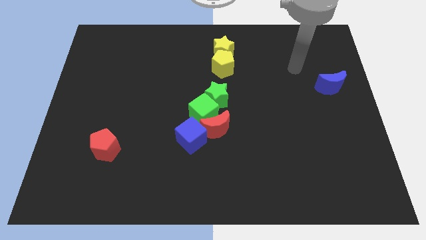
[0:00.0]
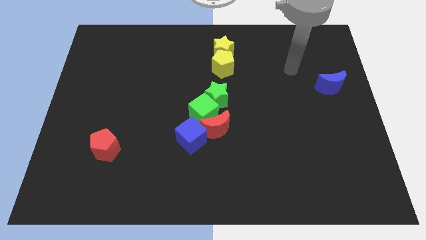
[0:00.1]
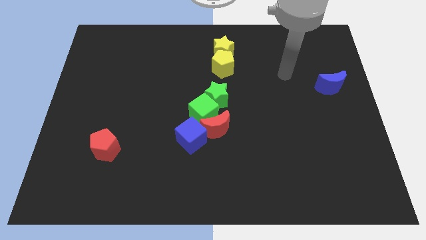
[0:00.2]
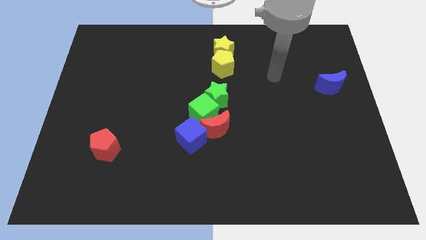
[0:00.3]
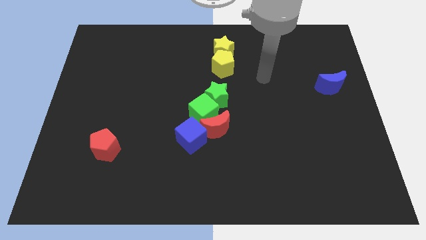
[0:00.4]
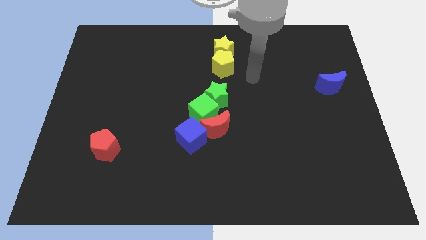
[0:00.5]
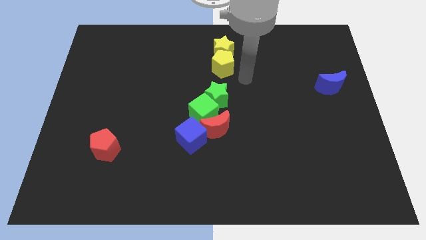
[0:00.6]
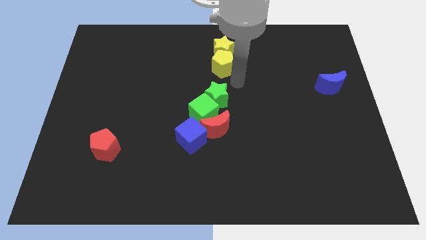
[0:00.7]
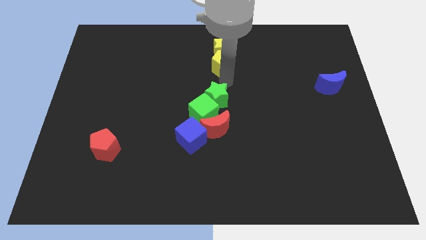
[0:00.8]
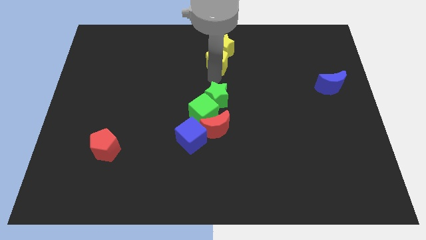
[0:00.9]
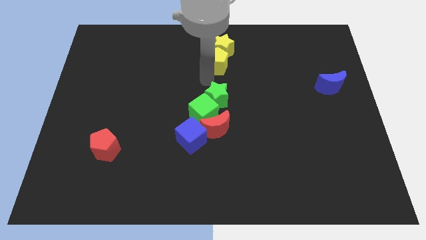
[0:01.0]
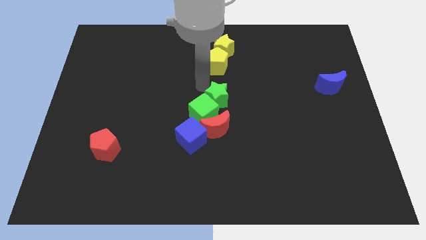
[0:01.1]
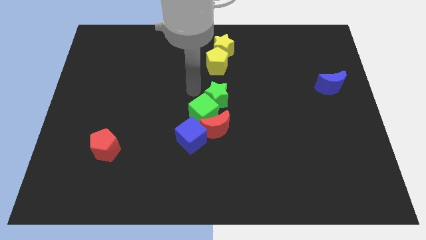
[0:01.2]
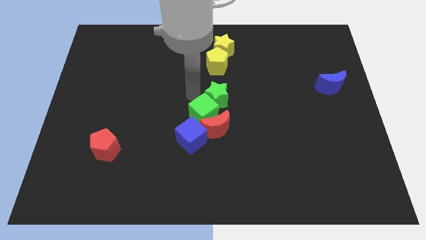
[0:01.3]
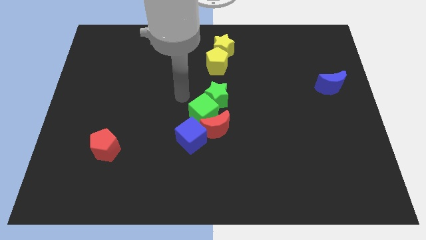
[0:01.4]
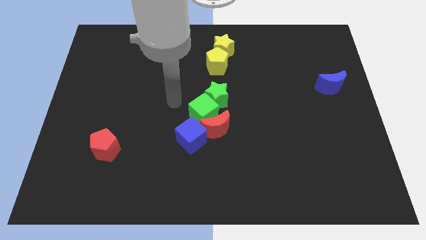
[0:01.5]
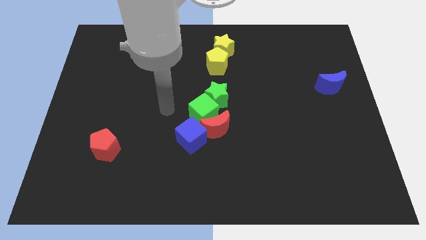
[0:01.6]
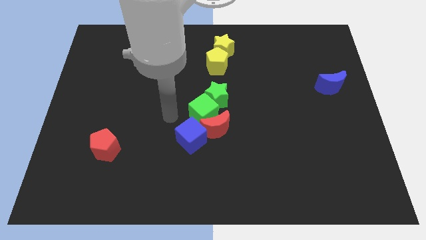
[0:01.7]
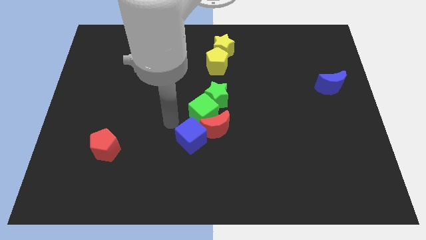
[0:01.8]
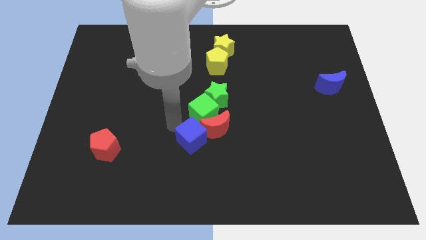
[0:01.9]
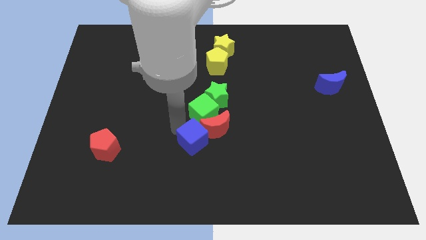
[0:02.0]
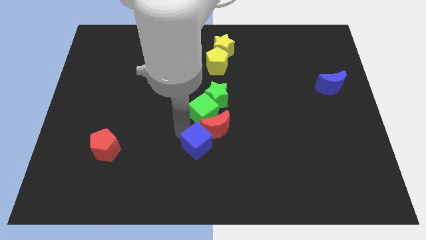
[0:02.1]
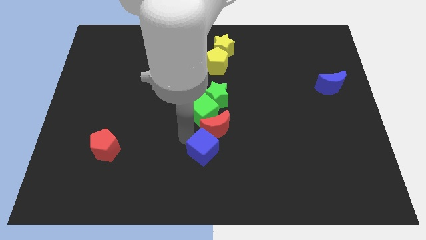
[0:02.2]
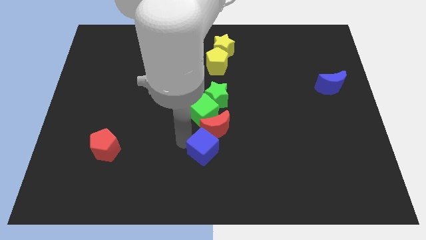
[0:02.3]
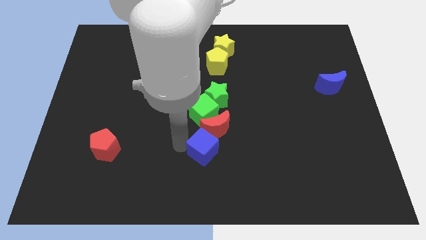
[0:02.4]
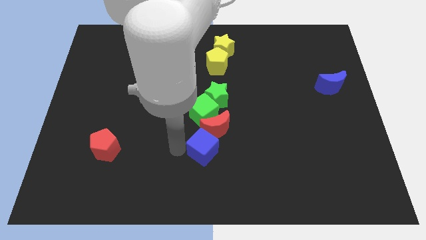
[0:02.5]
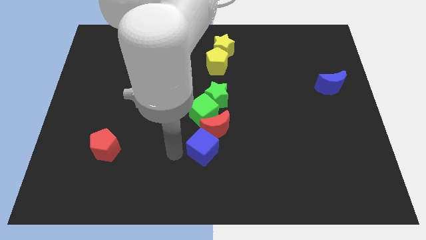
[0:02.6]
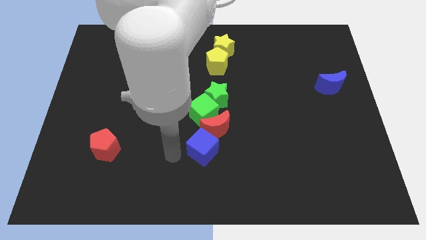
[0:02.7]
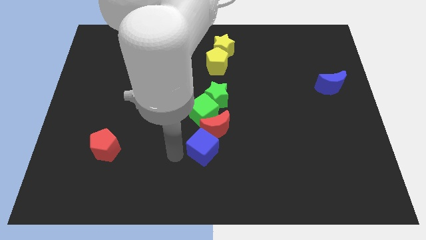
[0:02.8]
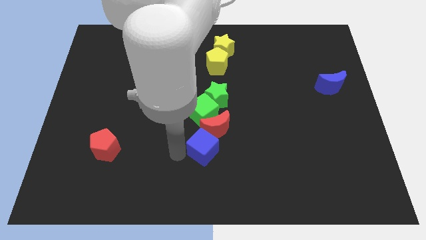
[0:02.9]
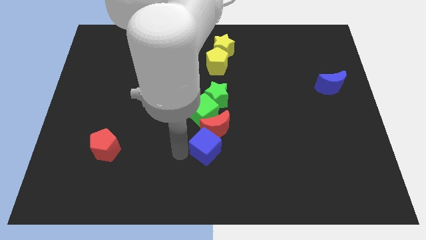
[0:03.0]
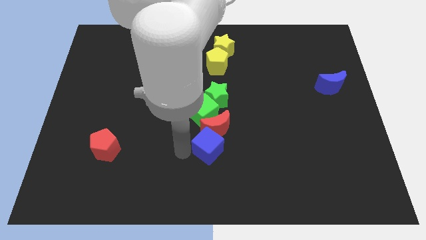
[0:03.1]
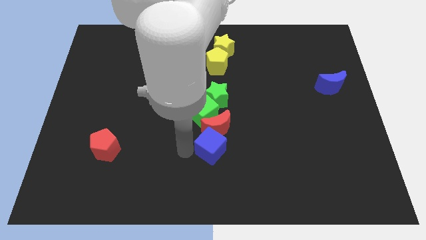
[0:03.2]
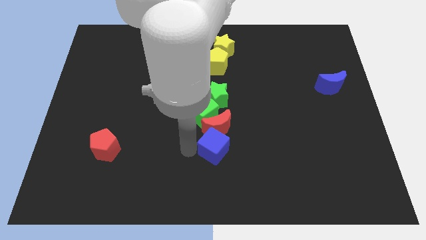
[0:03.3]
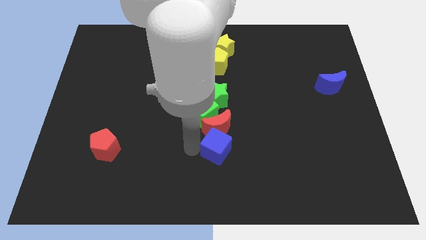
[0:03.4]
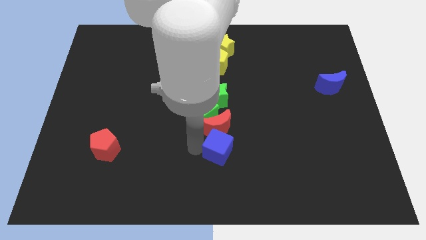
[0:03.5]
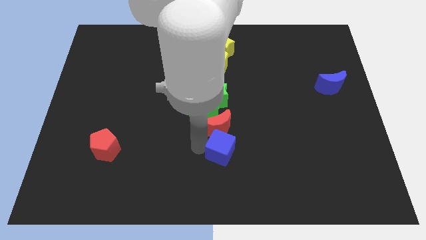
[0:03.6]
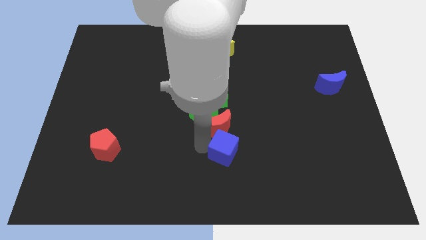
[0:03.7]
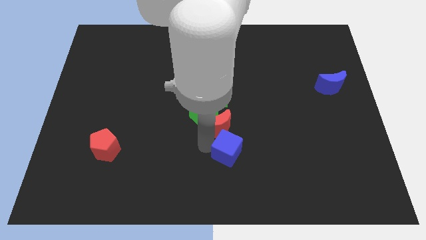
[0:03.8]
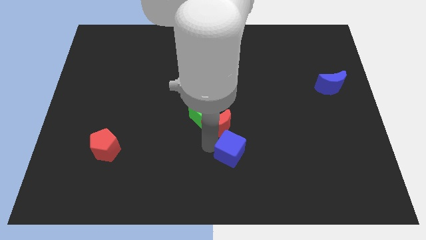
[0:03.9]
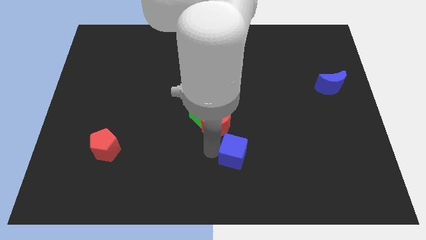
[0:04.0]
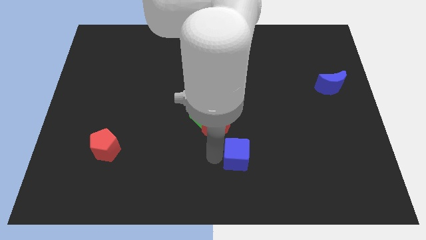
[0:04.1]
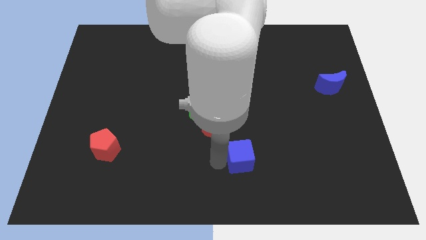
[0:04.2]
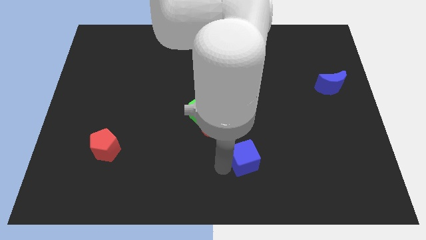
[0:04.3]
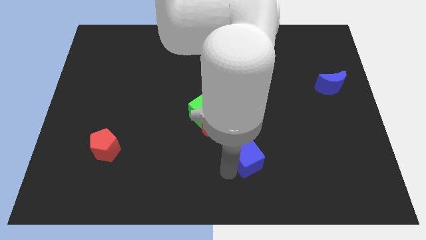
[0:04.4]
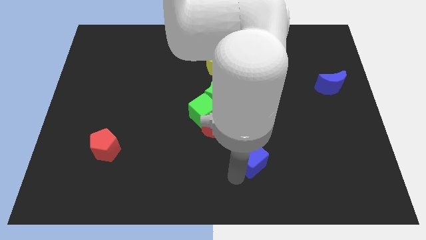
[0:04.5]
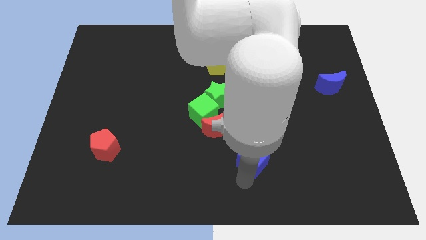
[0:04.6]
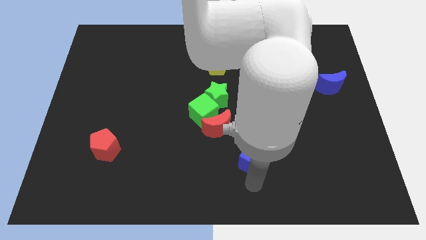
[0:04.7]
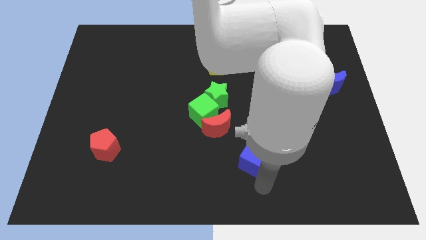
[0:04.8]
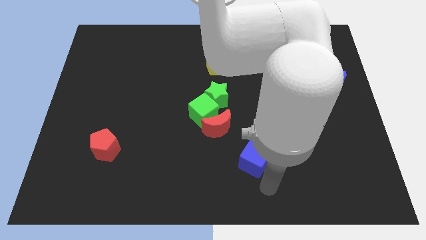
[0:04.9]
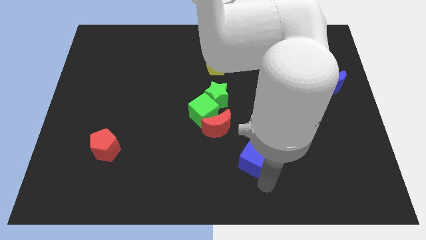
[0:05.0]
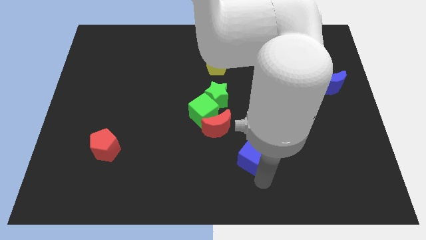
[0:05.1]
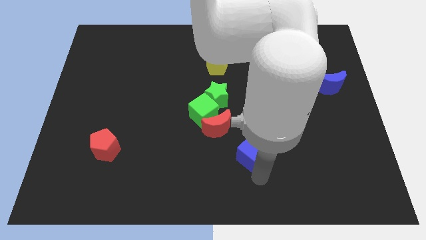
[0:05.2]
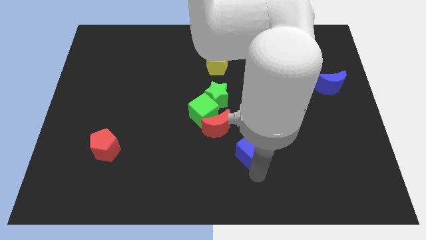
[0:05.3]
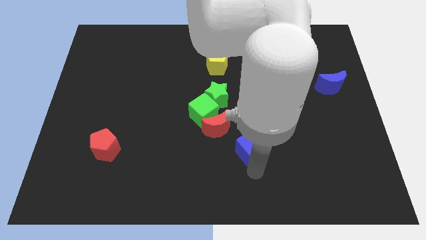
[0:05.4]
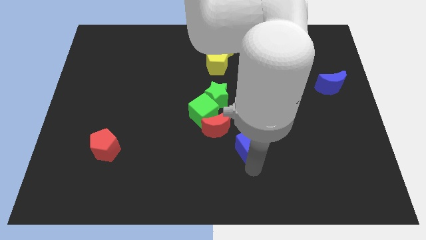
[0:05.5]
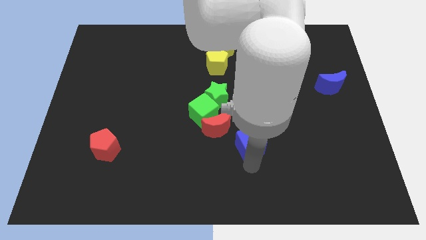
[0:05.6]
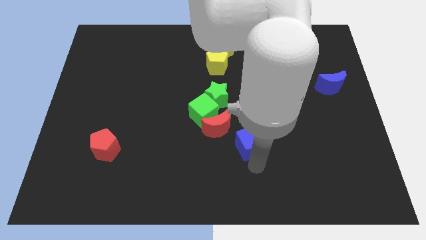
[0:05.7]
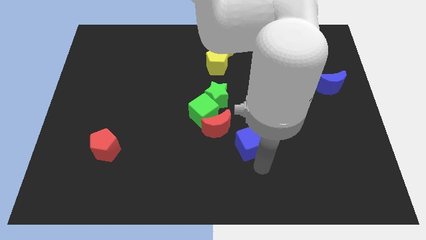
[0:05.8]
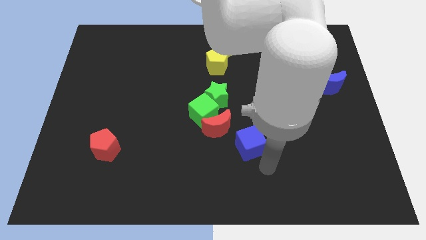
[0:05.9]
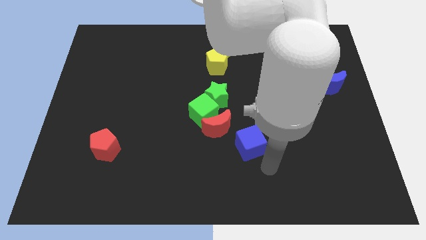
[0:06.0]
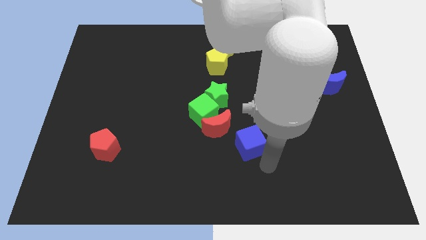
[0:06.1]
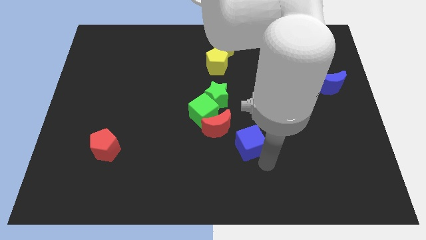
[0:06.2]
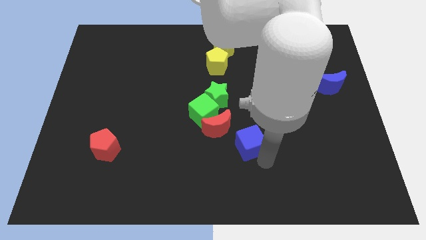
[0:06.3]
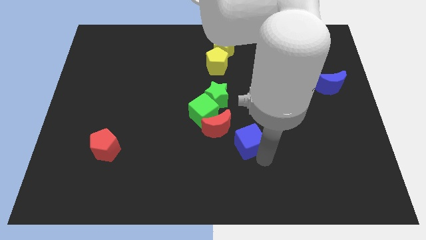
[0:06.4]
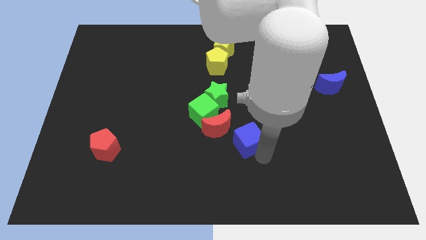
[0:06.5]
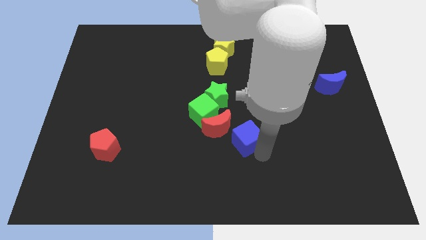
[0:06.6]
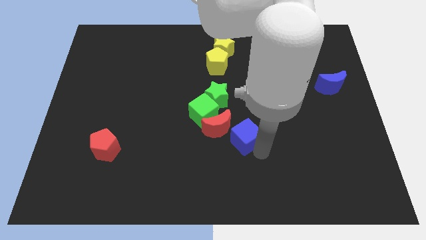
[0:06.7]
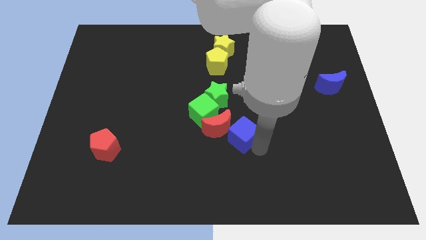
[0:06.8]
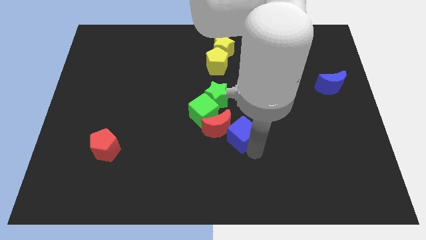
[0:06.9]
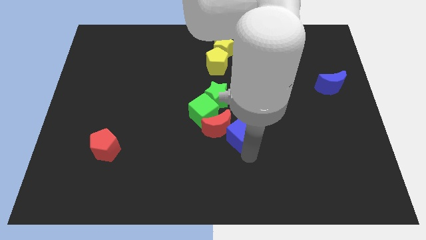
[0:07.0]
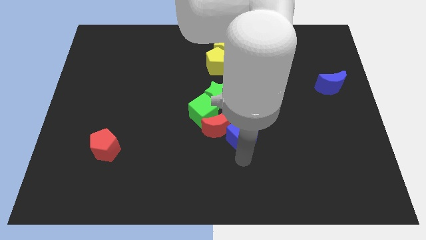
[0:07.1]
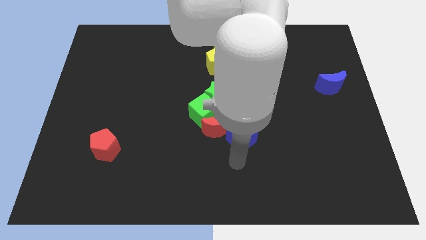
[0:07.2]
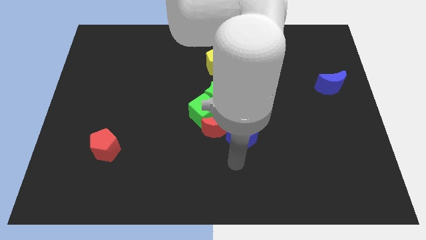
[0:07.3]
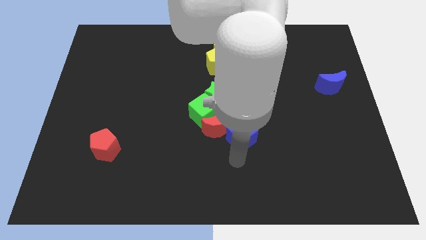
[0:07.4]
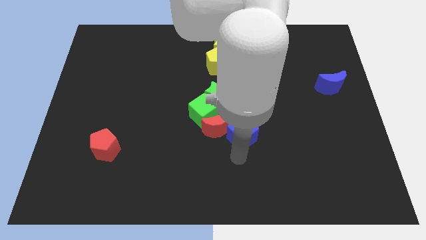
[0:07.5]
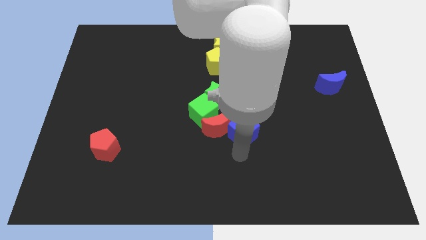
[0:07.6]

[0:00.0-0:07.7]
move the blue cube up and right somewhat

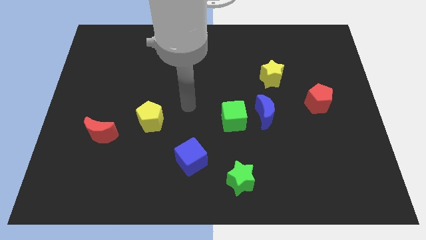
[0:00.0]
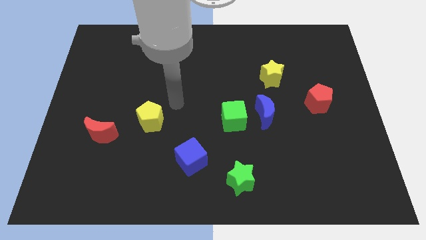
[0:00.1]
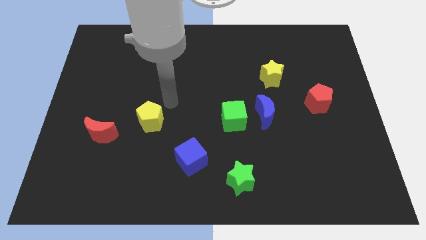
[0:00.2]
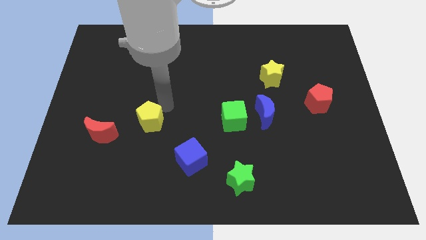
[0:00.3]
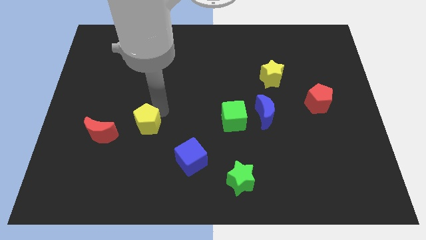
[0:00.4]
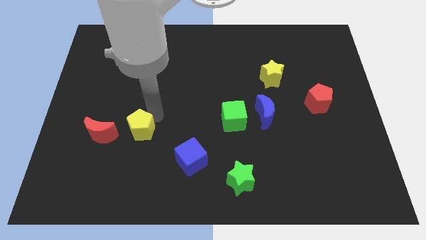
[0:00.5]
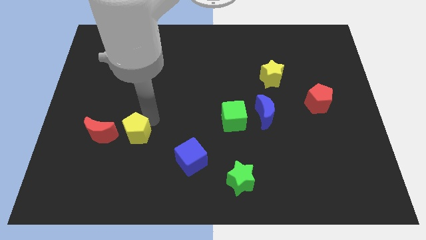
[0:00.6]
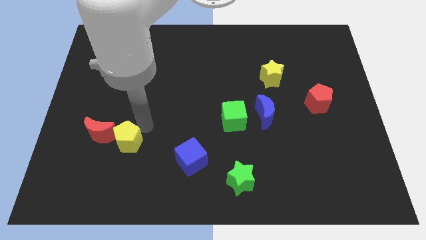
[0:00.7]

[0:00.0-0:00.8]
move the yellow pentagon a bit downwards and to the left
